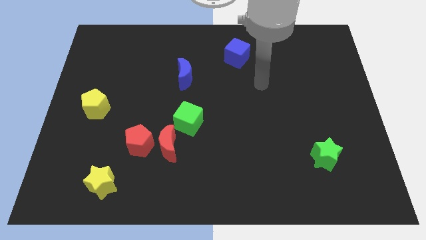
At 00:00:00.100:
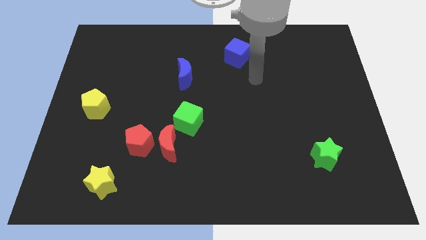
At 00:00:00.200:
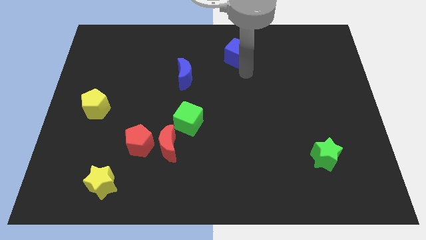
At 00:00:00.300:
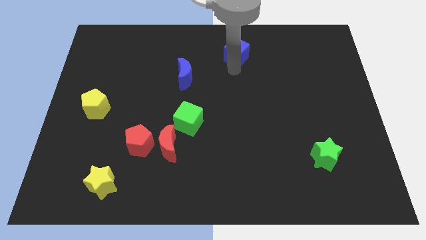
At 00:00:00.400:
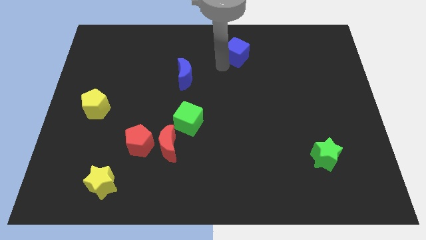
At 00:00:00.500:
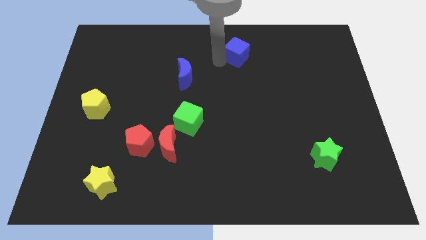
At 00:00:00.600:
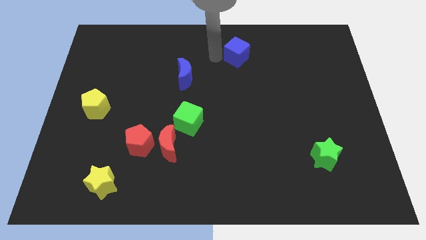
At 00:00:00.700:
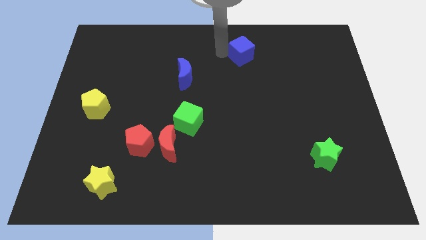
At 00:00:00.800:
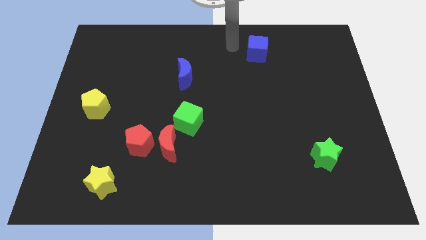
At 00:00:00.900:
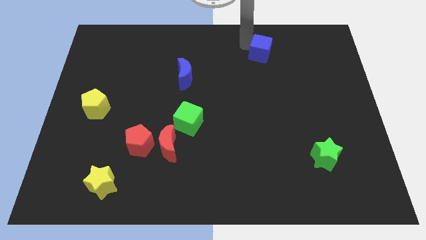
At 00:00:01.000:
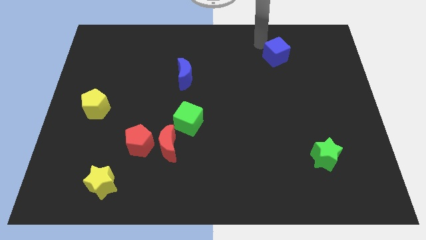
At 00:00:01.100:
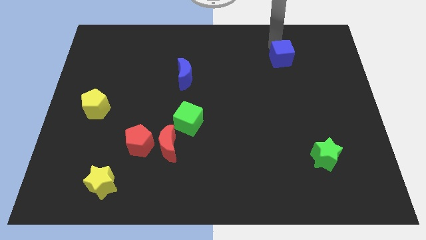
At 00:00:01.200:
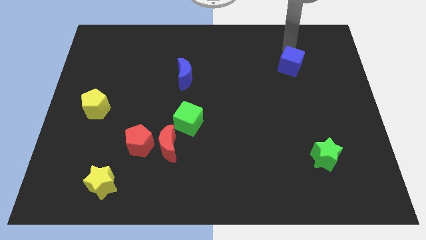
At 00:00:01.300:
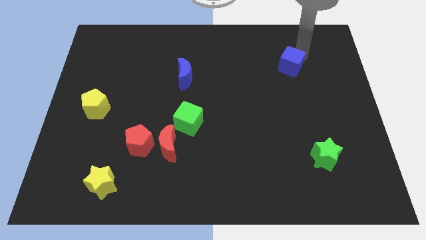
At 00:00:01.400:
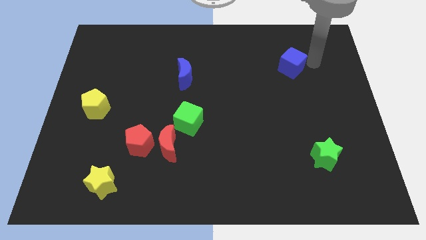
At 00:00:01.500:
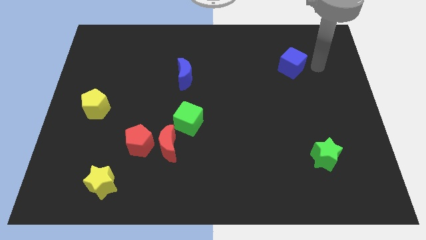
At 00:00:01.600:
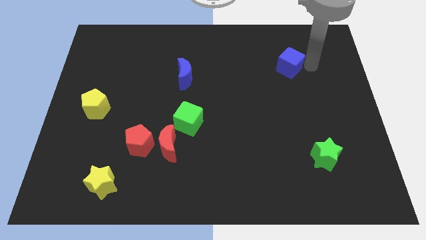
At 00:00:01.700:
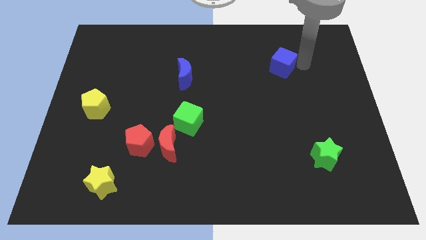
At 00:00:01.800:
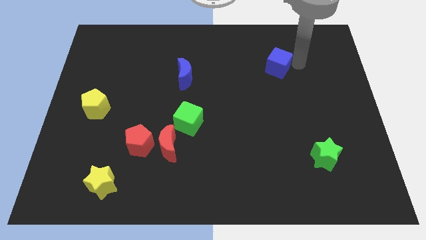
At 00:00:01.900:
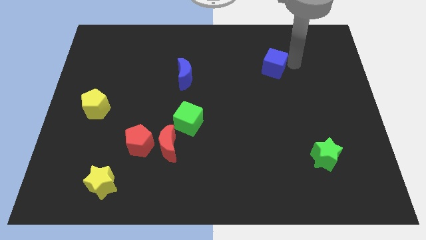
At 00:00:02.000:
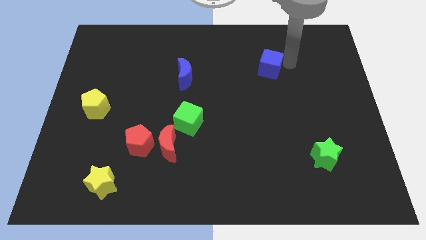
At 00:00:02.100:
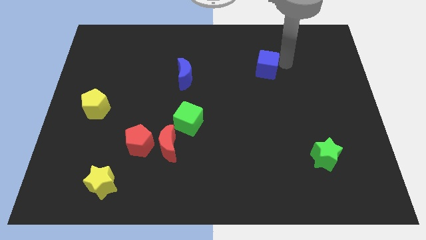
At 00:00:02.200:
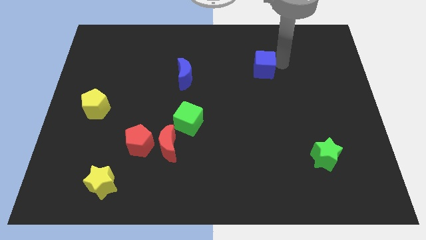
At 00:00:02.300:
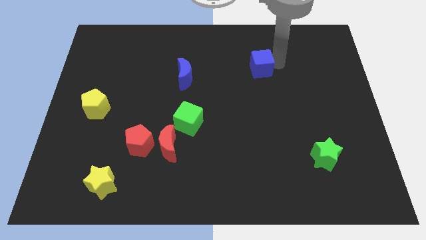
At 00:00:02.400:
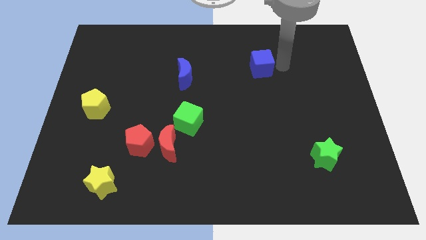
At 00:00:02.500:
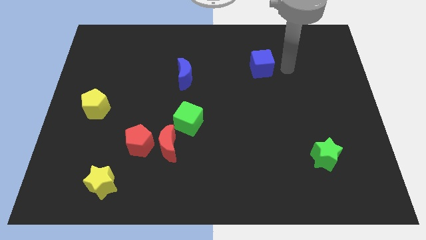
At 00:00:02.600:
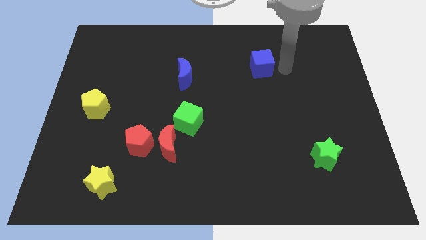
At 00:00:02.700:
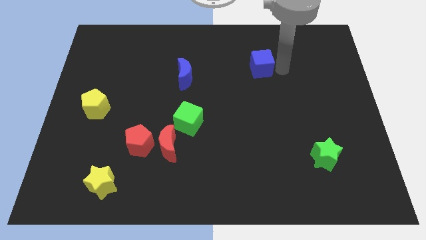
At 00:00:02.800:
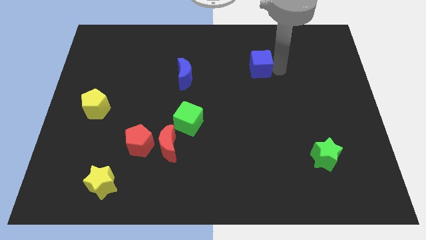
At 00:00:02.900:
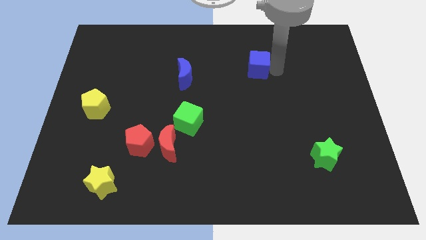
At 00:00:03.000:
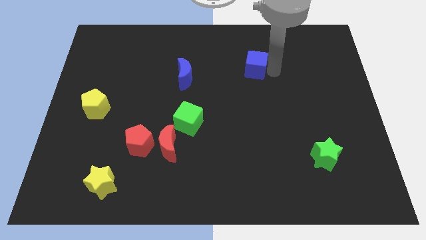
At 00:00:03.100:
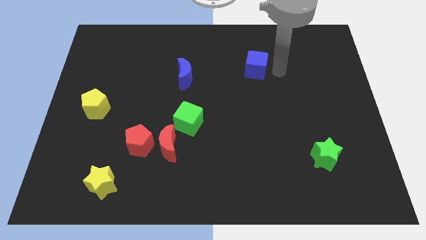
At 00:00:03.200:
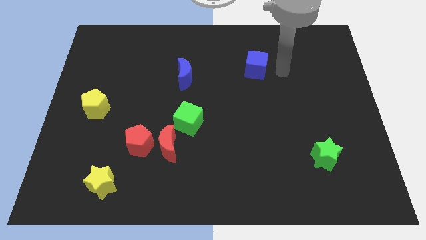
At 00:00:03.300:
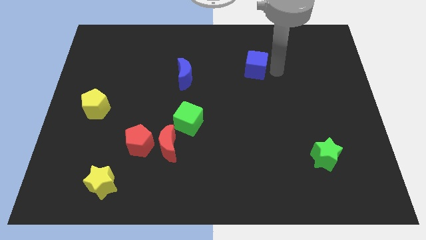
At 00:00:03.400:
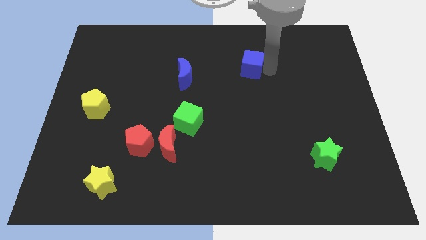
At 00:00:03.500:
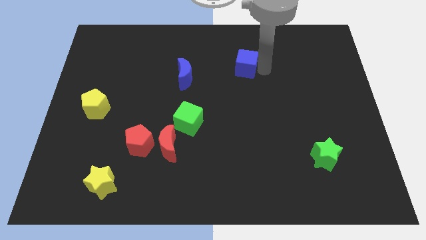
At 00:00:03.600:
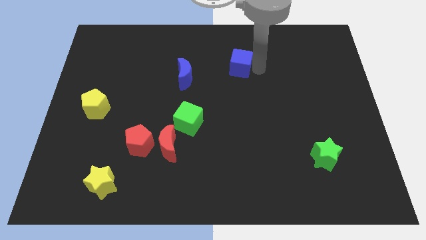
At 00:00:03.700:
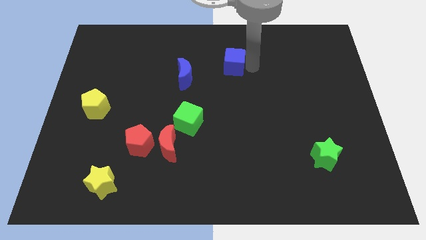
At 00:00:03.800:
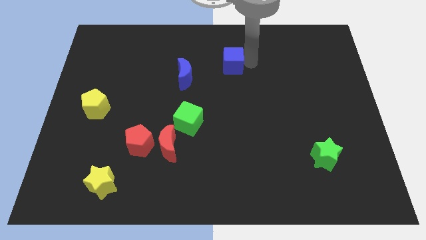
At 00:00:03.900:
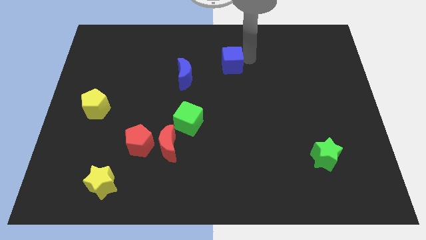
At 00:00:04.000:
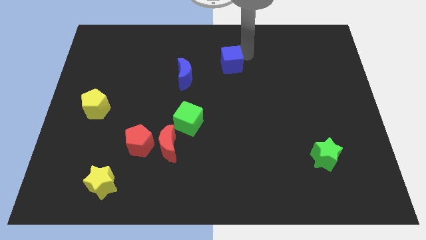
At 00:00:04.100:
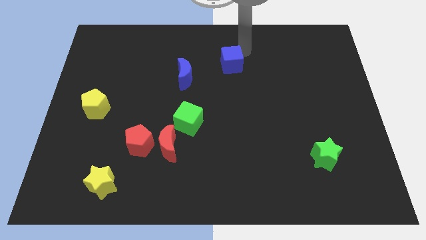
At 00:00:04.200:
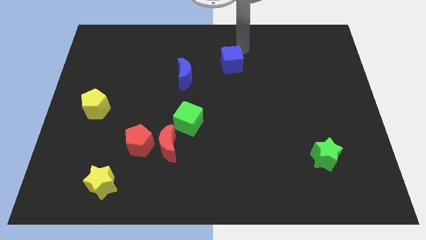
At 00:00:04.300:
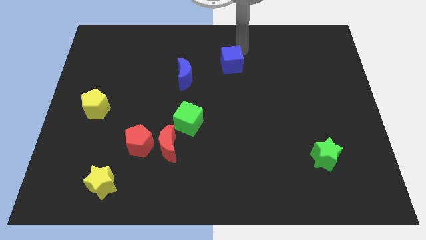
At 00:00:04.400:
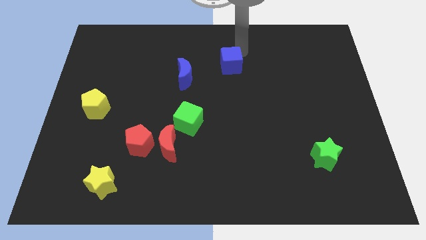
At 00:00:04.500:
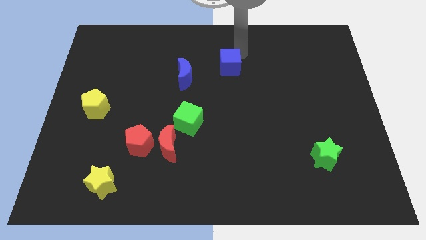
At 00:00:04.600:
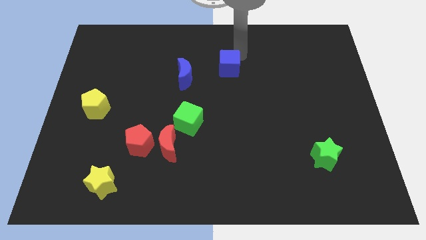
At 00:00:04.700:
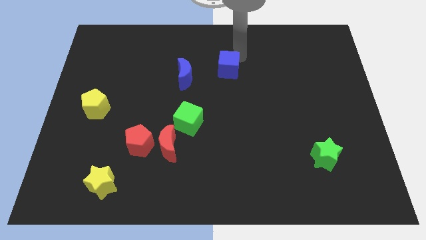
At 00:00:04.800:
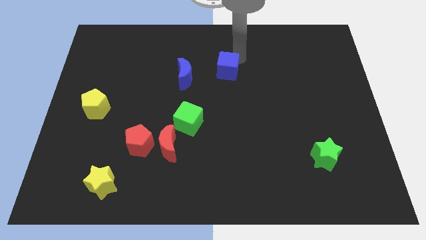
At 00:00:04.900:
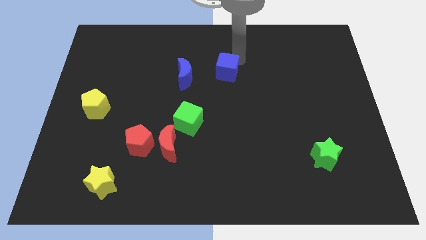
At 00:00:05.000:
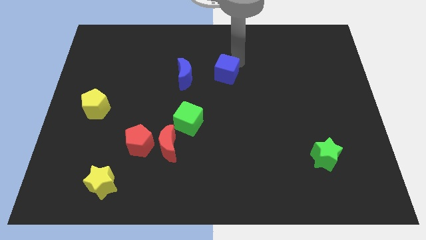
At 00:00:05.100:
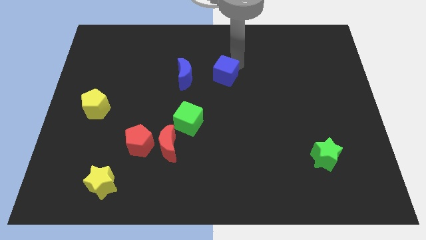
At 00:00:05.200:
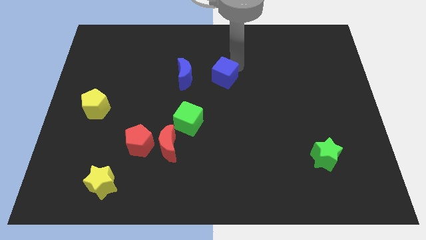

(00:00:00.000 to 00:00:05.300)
push the blue cube a little bit downwards and then left

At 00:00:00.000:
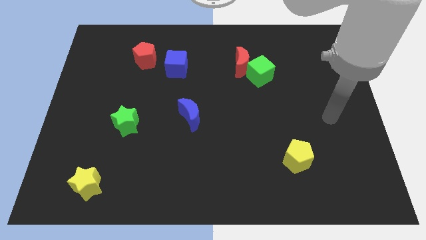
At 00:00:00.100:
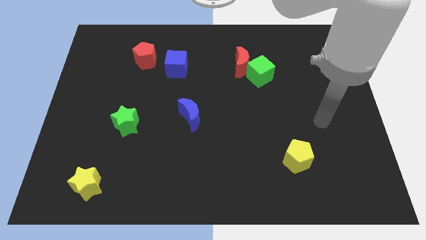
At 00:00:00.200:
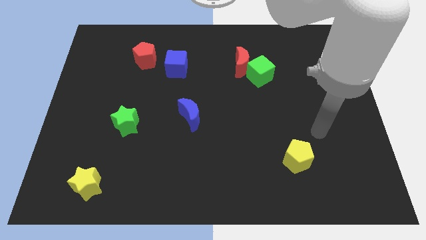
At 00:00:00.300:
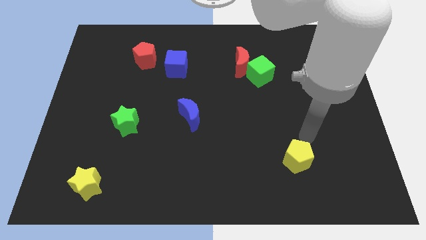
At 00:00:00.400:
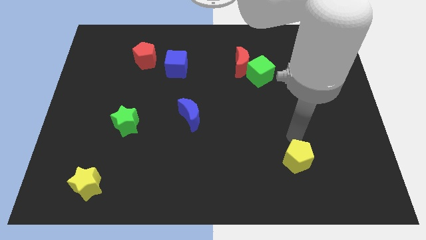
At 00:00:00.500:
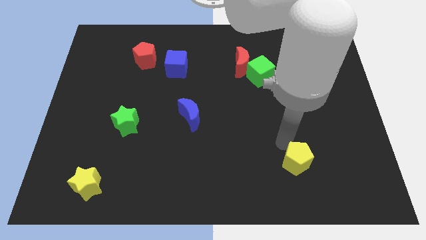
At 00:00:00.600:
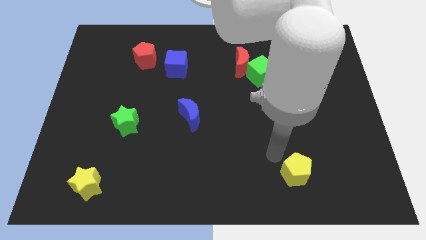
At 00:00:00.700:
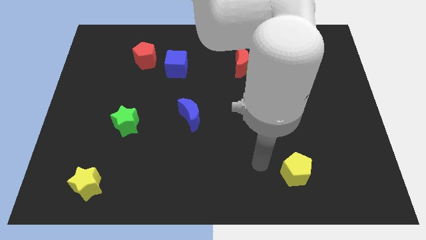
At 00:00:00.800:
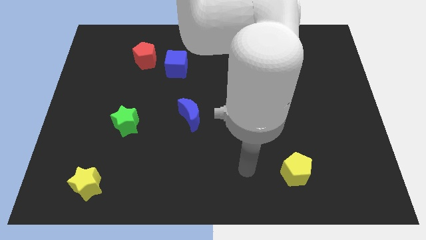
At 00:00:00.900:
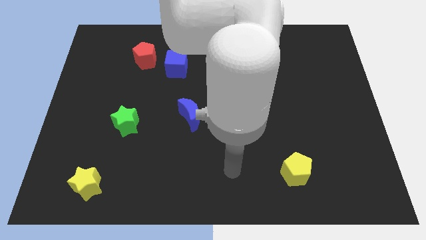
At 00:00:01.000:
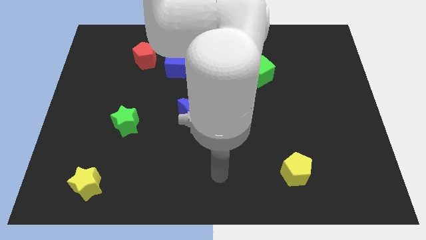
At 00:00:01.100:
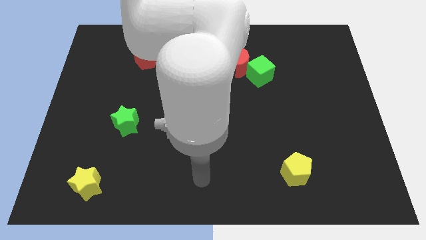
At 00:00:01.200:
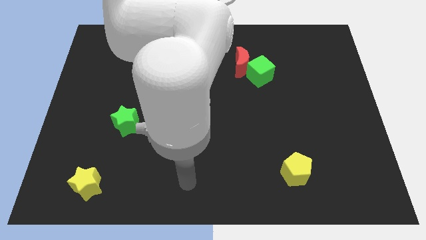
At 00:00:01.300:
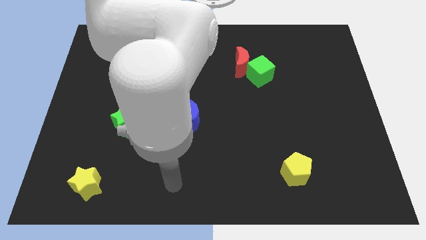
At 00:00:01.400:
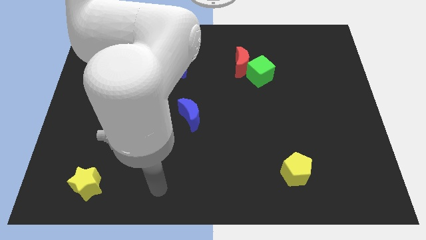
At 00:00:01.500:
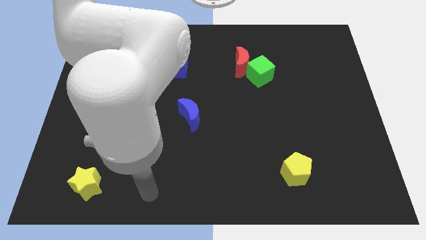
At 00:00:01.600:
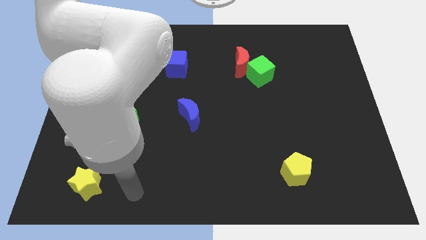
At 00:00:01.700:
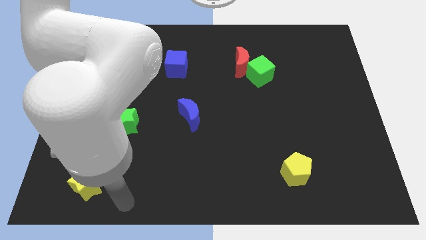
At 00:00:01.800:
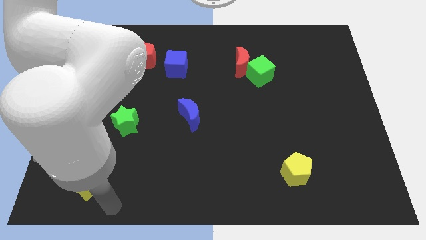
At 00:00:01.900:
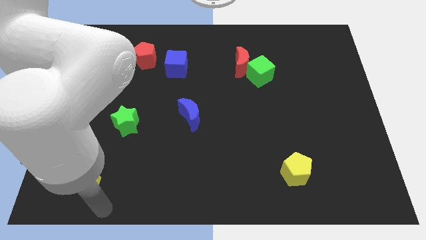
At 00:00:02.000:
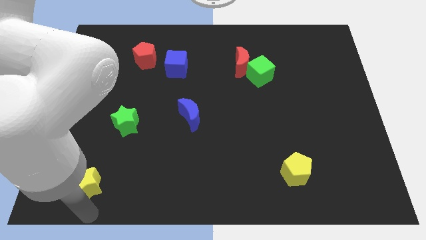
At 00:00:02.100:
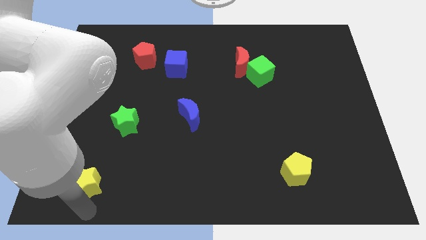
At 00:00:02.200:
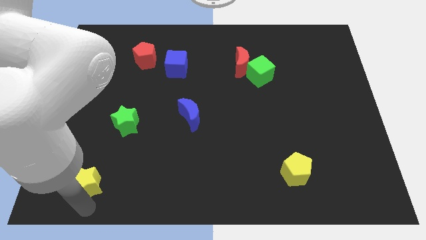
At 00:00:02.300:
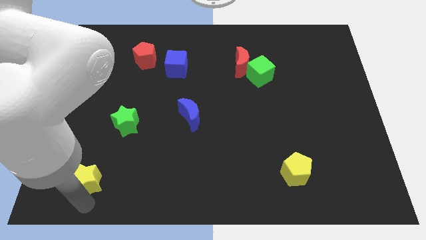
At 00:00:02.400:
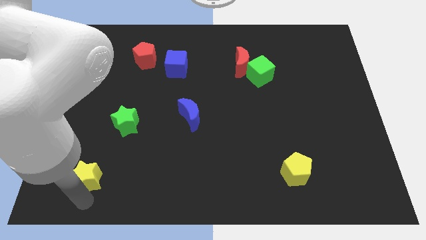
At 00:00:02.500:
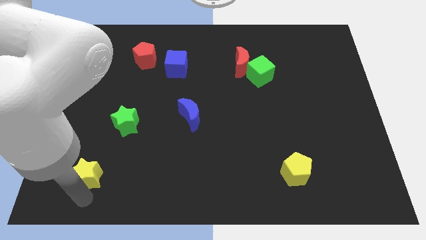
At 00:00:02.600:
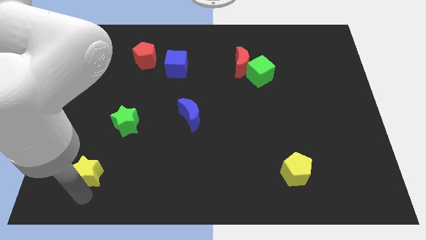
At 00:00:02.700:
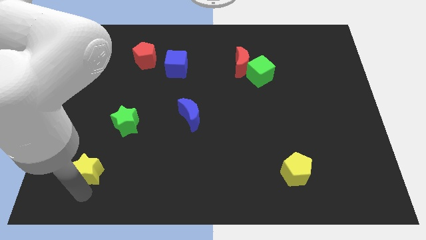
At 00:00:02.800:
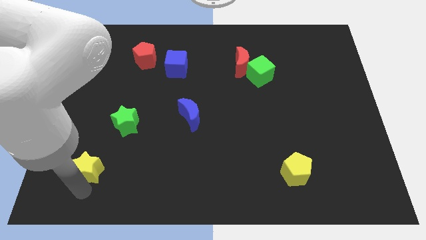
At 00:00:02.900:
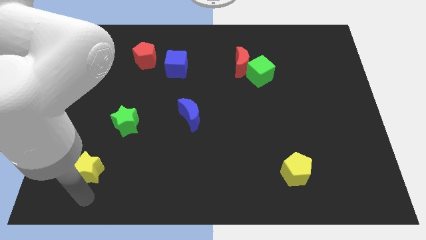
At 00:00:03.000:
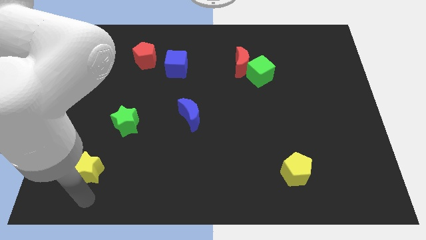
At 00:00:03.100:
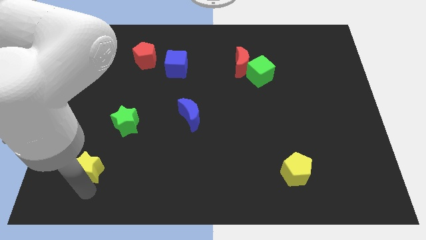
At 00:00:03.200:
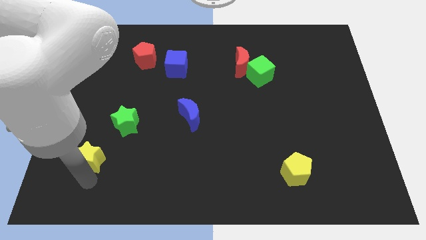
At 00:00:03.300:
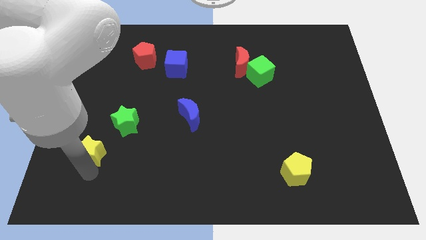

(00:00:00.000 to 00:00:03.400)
push the yellow star up a little
